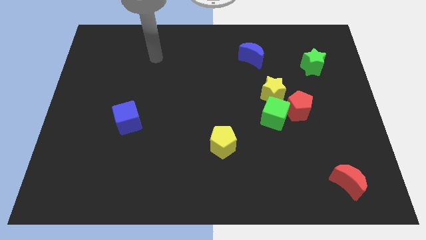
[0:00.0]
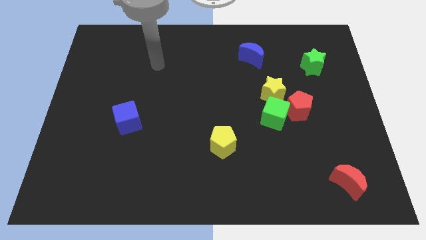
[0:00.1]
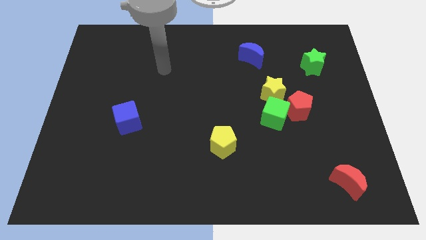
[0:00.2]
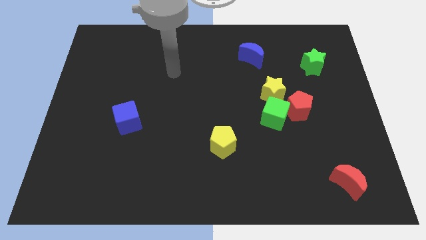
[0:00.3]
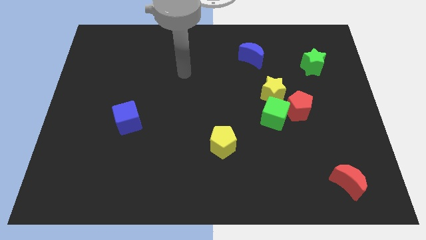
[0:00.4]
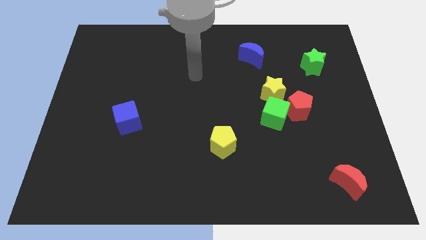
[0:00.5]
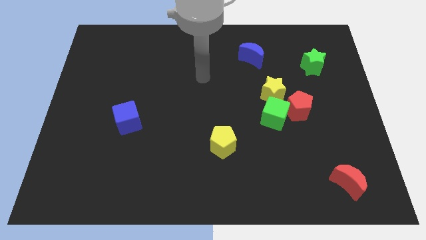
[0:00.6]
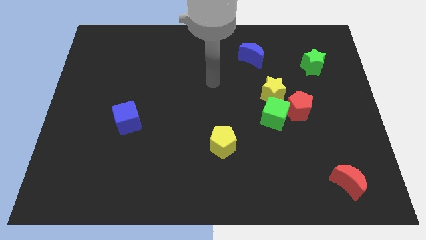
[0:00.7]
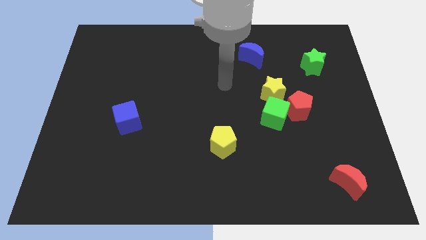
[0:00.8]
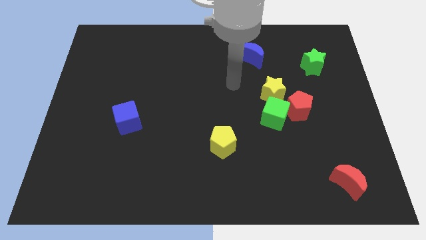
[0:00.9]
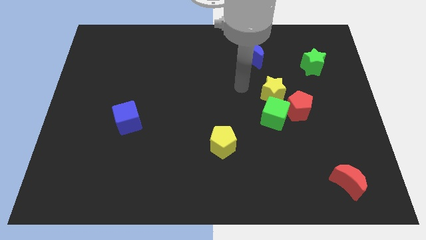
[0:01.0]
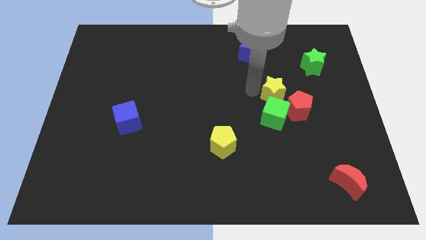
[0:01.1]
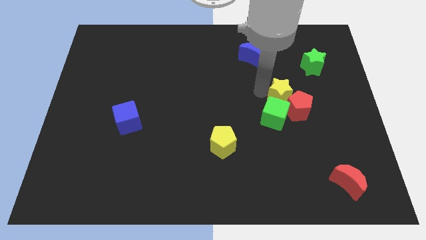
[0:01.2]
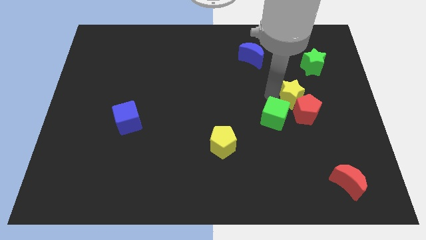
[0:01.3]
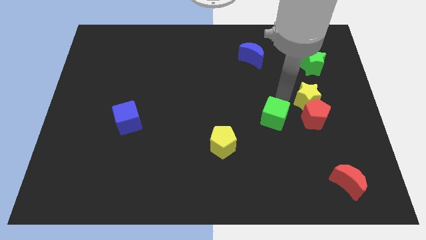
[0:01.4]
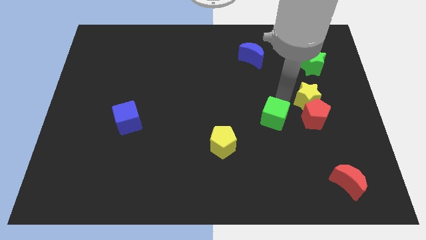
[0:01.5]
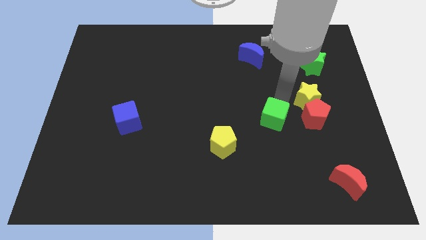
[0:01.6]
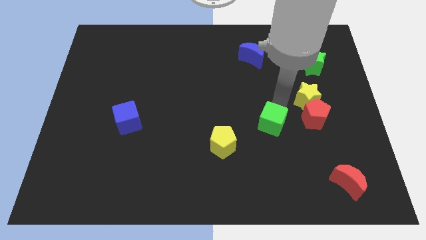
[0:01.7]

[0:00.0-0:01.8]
move the green cube away from the red pentagon and yellow star

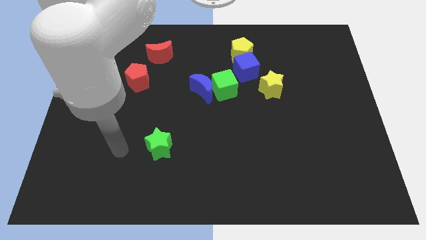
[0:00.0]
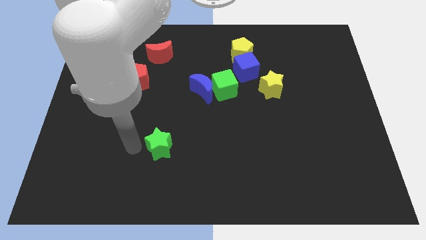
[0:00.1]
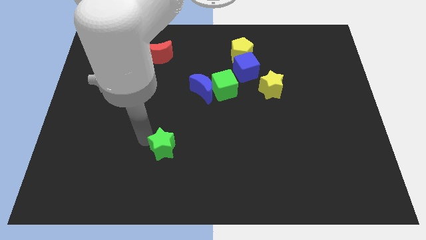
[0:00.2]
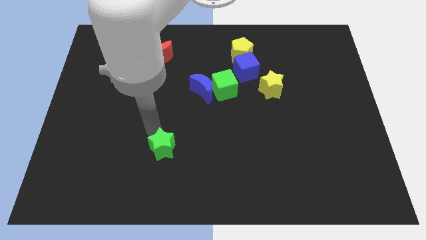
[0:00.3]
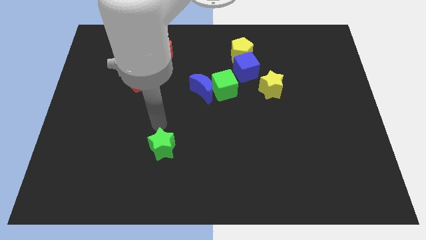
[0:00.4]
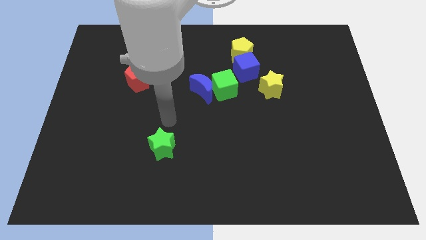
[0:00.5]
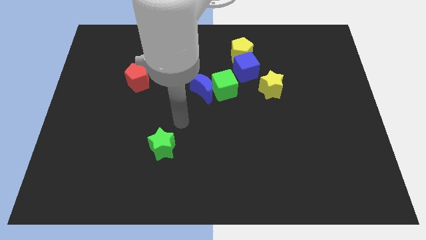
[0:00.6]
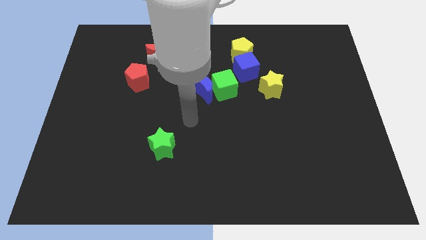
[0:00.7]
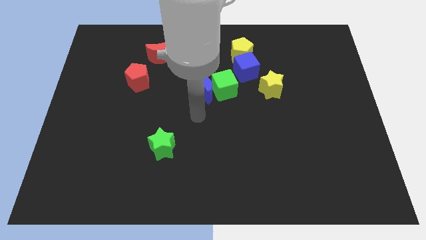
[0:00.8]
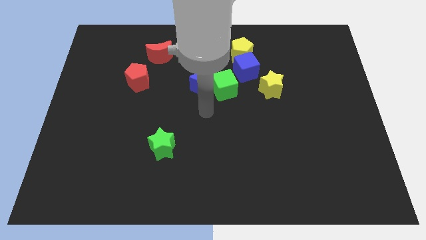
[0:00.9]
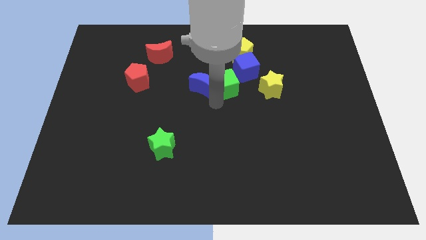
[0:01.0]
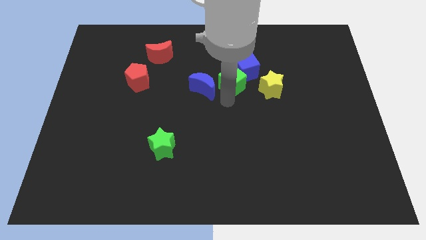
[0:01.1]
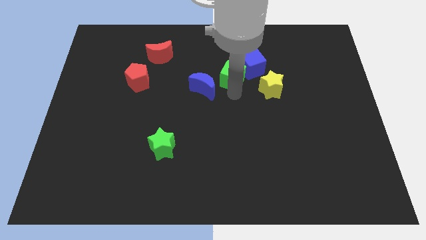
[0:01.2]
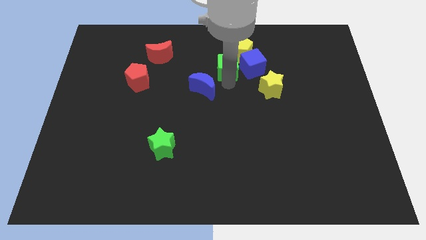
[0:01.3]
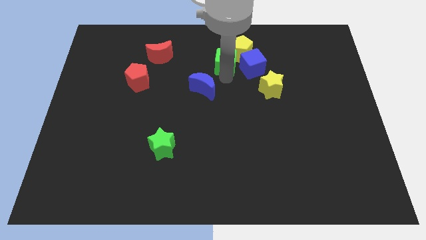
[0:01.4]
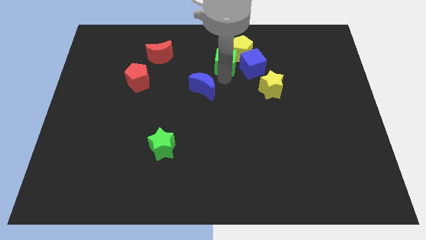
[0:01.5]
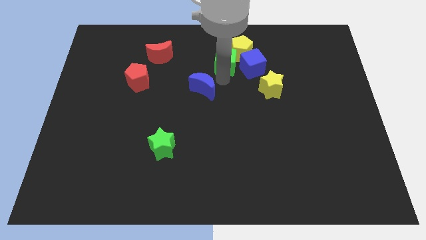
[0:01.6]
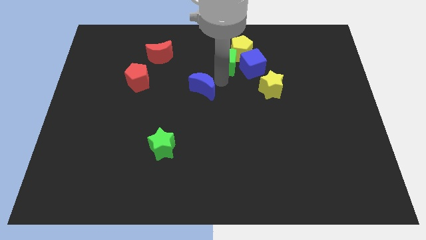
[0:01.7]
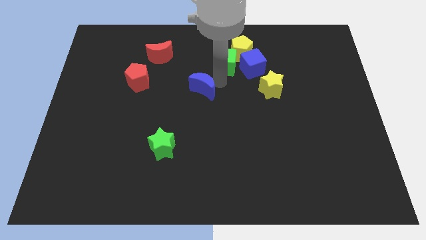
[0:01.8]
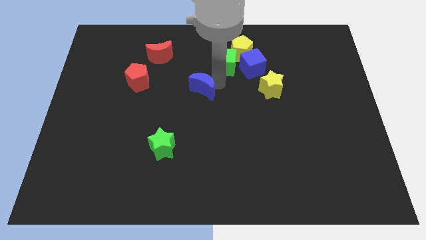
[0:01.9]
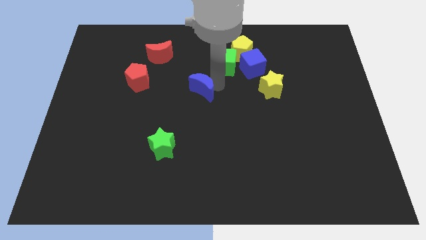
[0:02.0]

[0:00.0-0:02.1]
separate the blue moon from the green cube

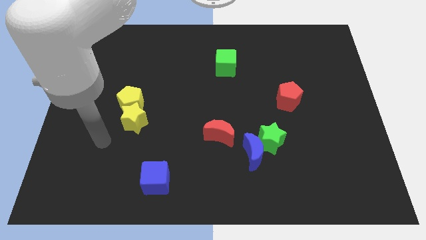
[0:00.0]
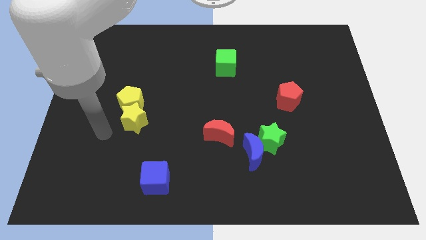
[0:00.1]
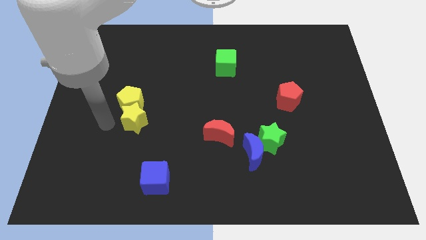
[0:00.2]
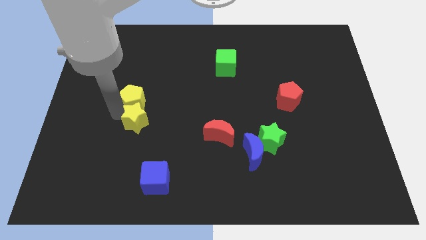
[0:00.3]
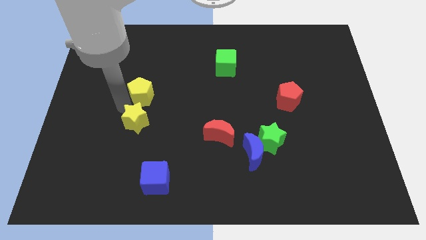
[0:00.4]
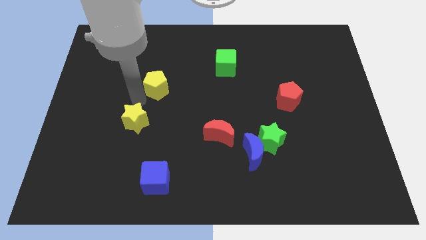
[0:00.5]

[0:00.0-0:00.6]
pull the yellow star apart from the yellow pentagon

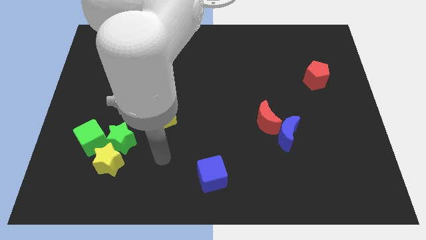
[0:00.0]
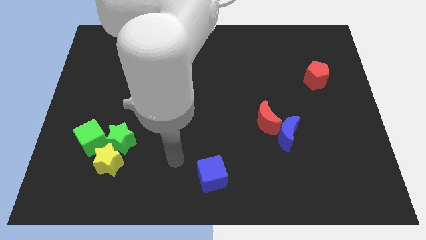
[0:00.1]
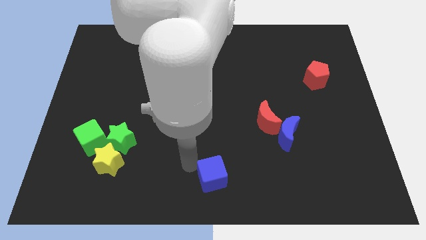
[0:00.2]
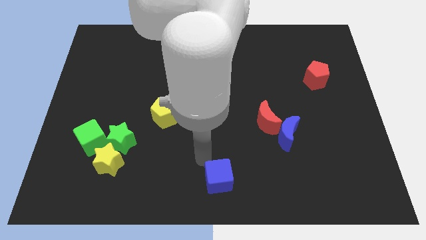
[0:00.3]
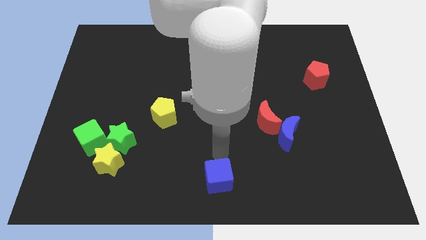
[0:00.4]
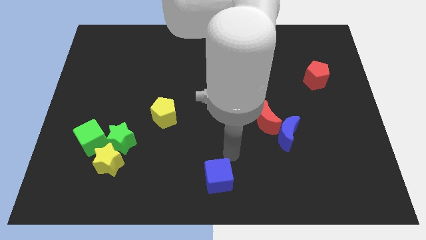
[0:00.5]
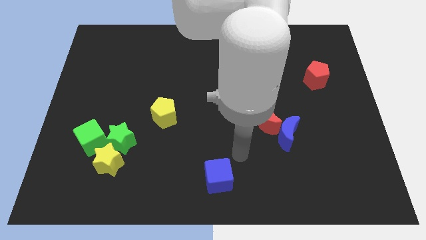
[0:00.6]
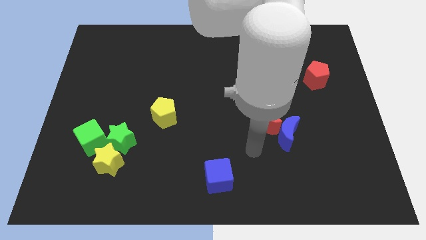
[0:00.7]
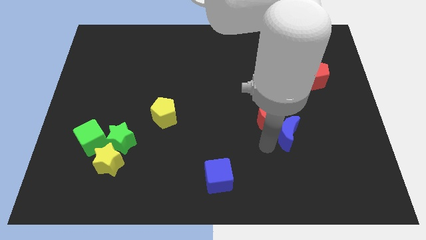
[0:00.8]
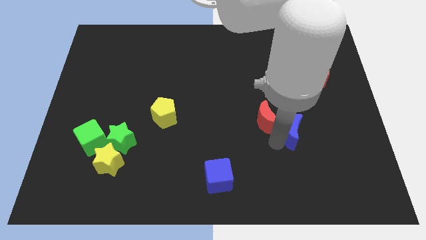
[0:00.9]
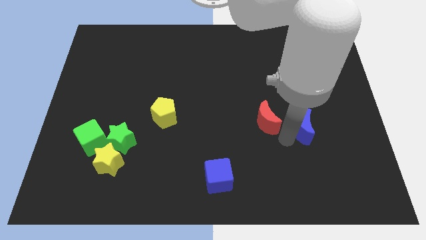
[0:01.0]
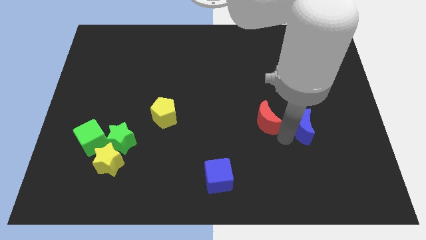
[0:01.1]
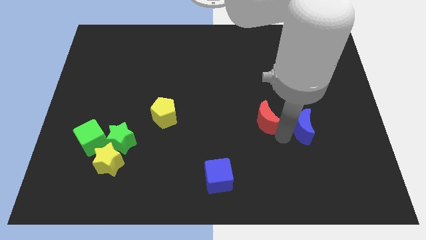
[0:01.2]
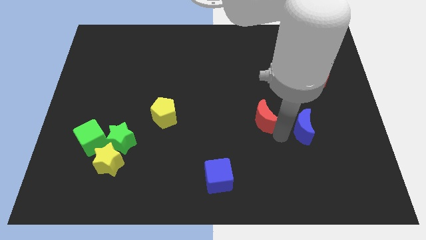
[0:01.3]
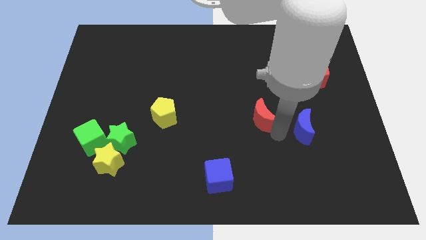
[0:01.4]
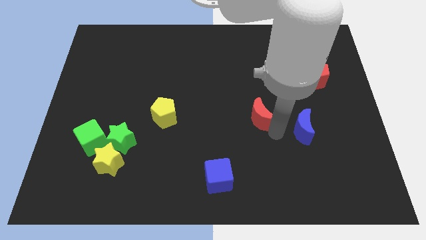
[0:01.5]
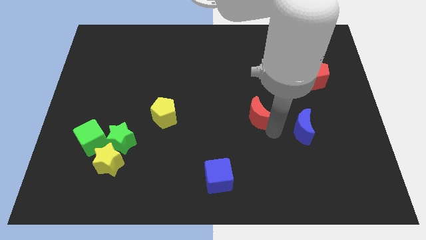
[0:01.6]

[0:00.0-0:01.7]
separate the red moon from the blue moon

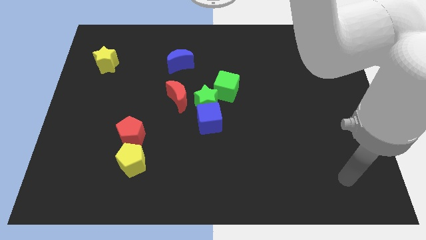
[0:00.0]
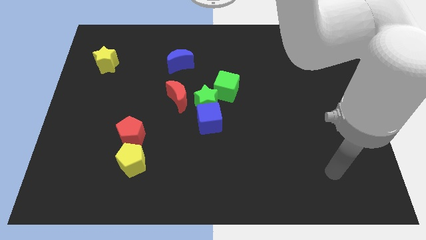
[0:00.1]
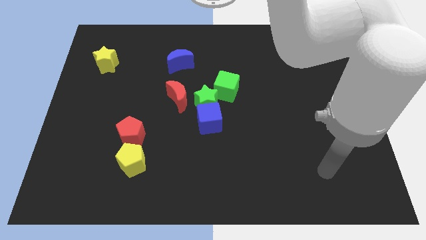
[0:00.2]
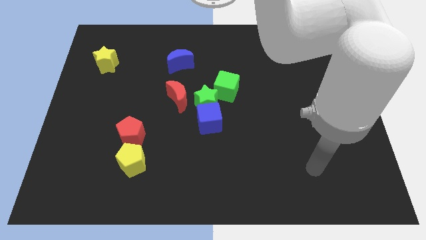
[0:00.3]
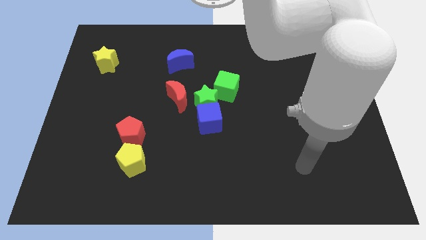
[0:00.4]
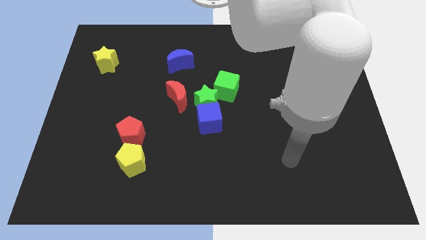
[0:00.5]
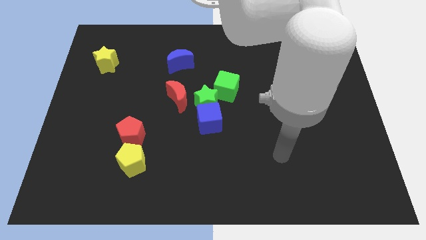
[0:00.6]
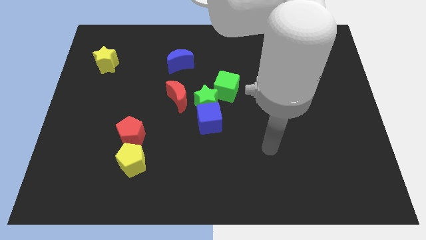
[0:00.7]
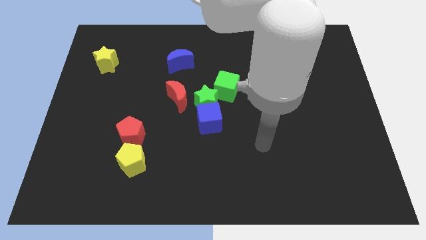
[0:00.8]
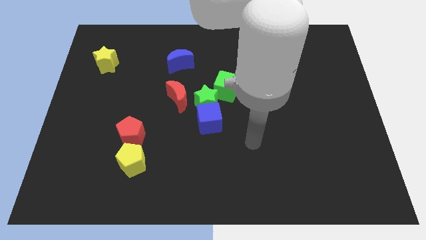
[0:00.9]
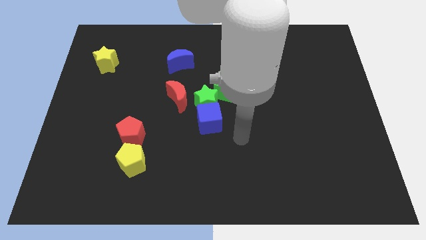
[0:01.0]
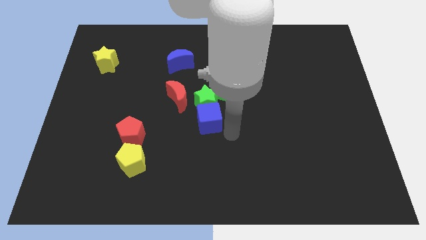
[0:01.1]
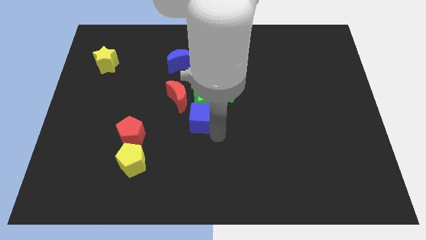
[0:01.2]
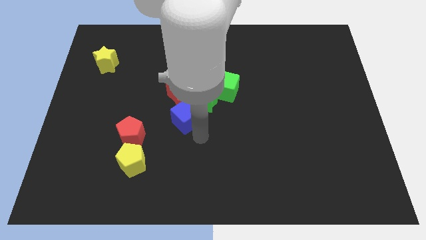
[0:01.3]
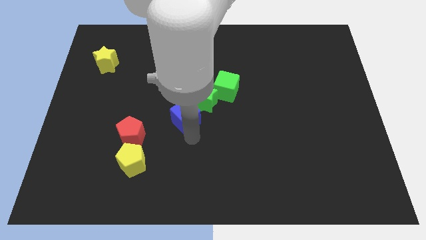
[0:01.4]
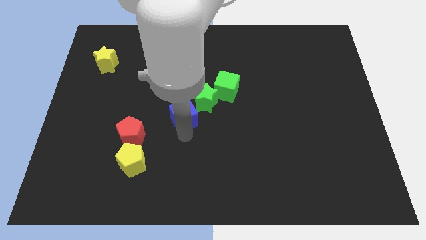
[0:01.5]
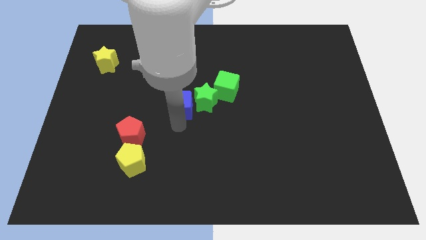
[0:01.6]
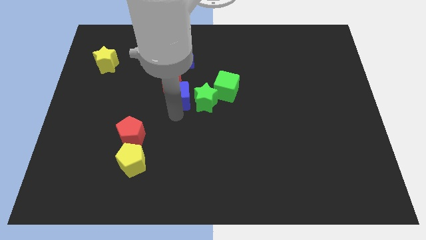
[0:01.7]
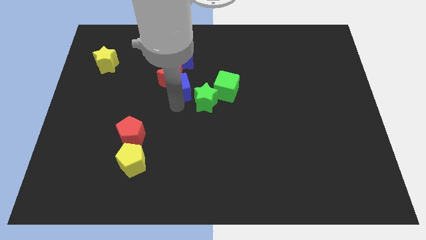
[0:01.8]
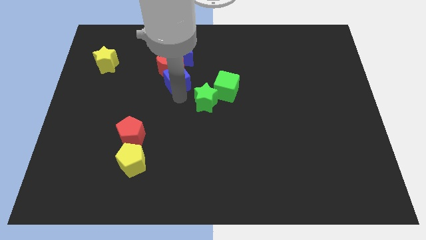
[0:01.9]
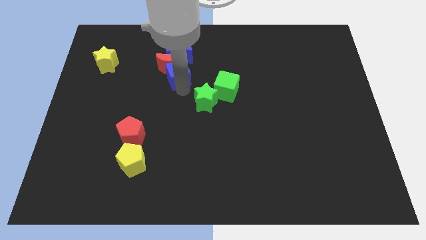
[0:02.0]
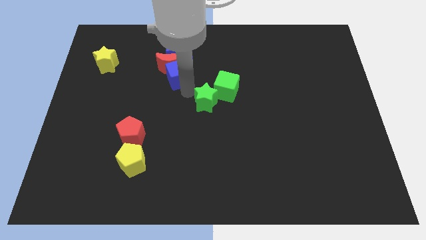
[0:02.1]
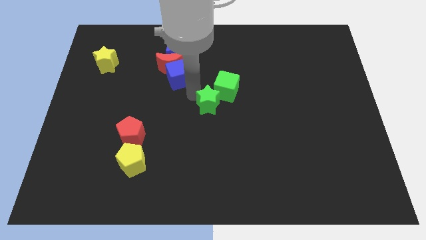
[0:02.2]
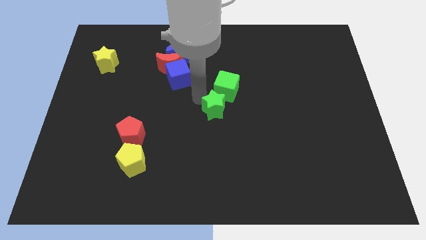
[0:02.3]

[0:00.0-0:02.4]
separate the green star from the group of blocks

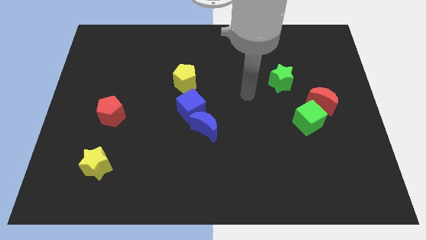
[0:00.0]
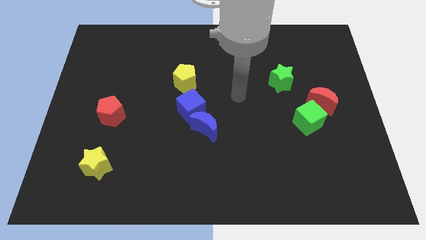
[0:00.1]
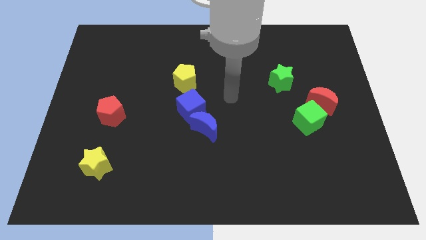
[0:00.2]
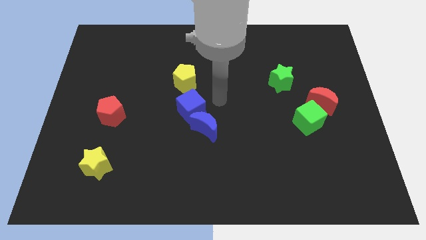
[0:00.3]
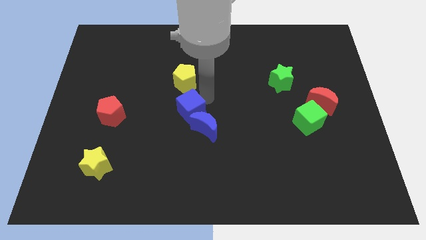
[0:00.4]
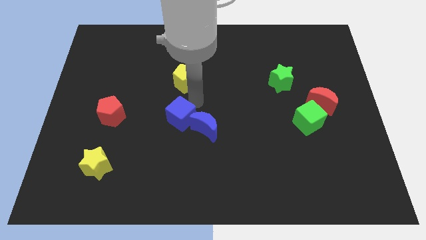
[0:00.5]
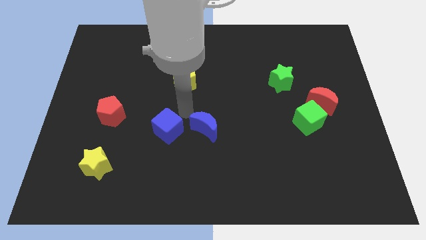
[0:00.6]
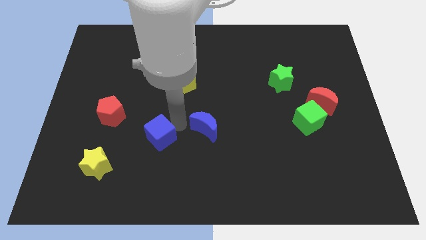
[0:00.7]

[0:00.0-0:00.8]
separate the blue moon from the blue cube
